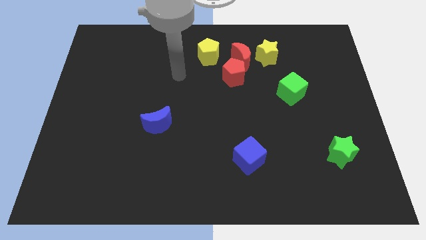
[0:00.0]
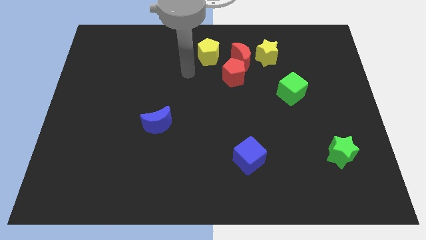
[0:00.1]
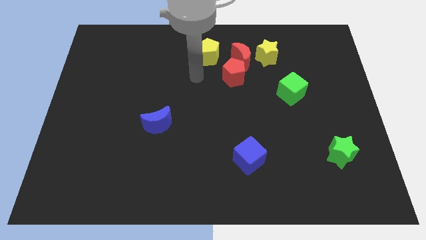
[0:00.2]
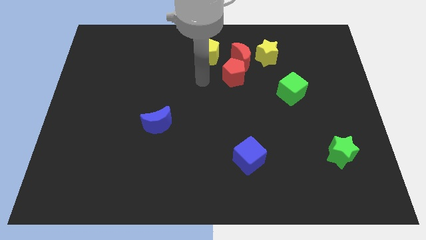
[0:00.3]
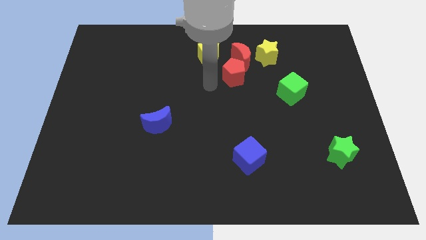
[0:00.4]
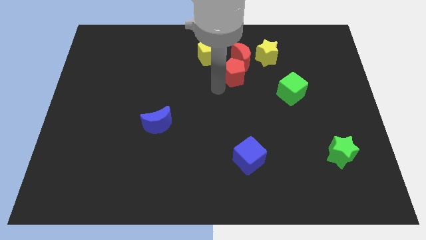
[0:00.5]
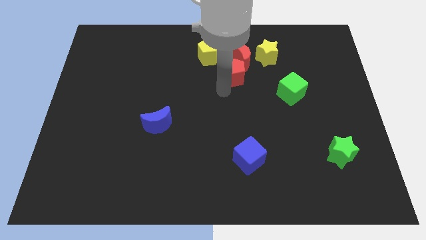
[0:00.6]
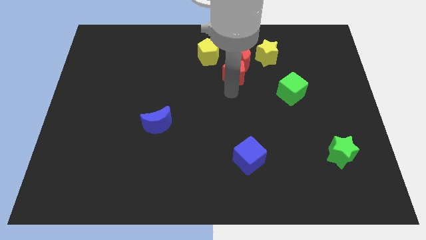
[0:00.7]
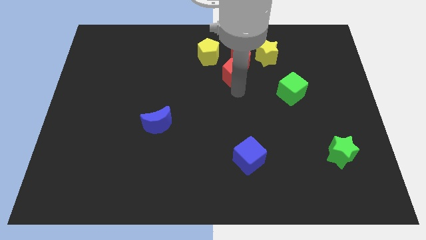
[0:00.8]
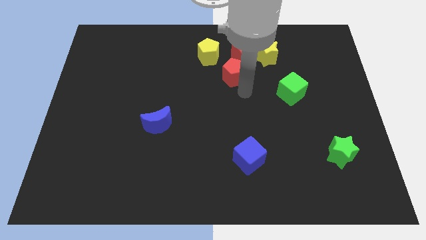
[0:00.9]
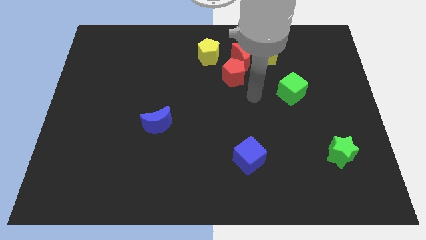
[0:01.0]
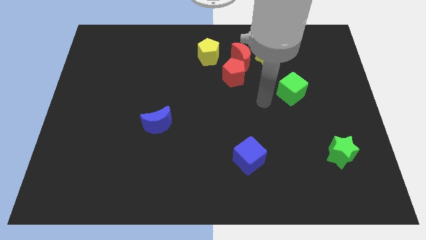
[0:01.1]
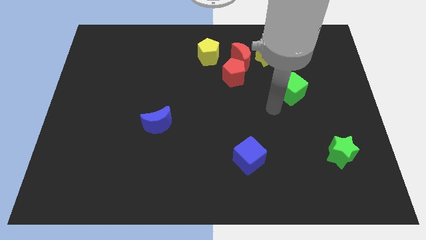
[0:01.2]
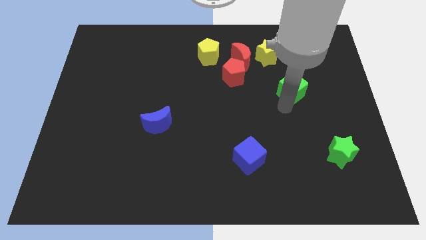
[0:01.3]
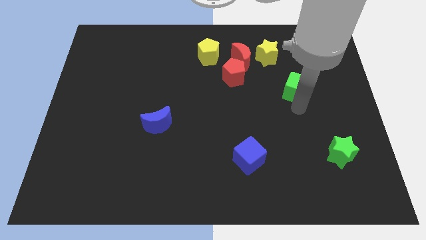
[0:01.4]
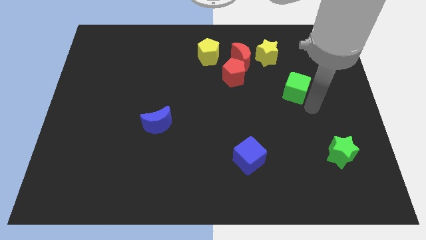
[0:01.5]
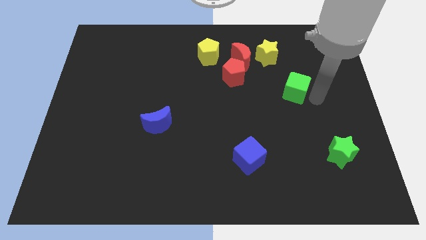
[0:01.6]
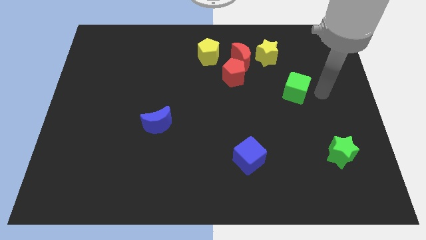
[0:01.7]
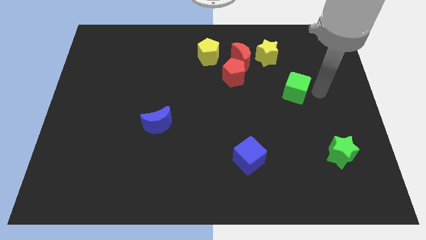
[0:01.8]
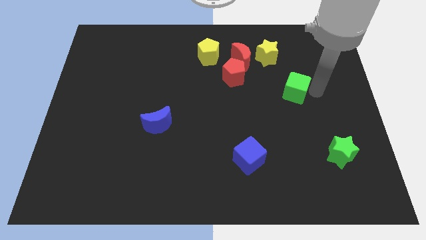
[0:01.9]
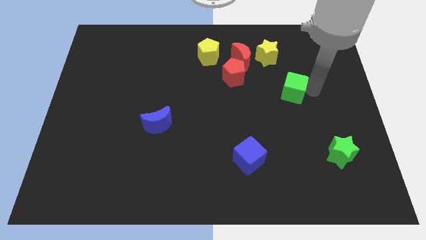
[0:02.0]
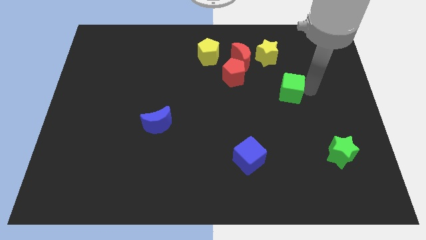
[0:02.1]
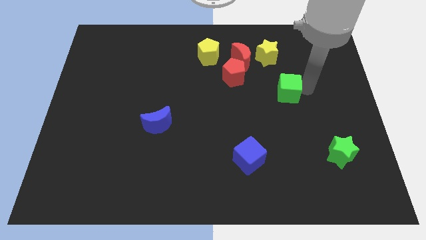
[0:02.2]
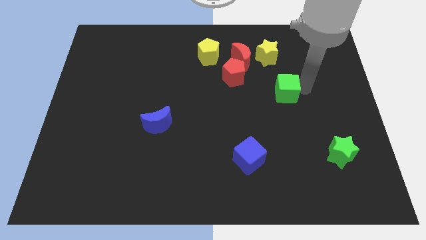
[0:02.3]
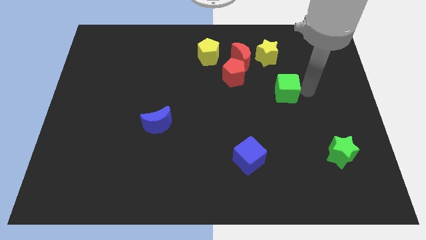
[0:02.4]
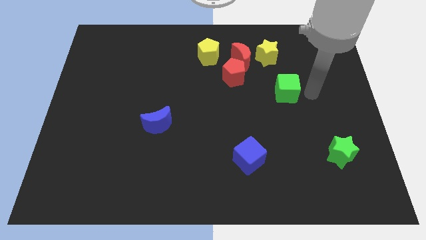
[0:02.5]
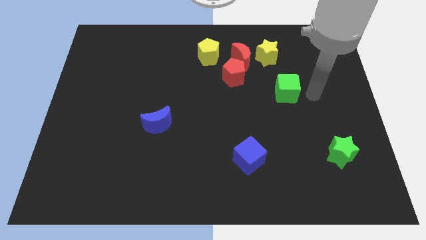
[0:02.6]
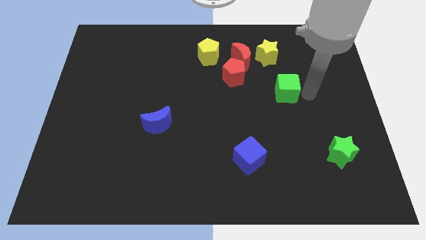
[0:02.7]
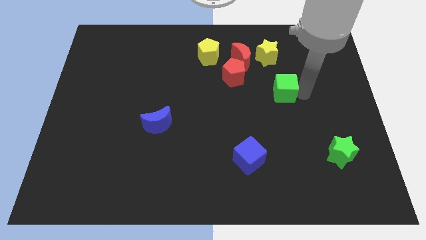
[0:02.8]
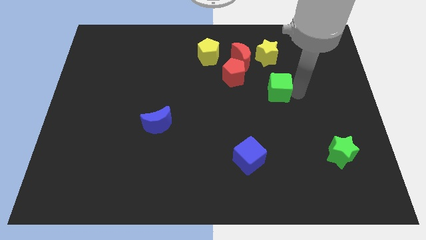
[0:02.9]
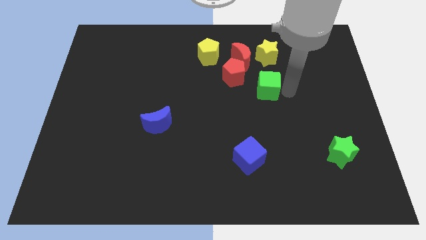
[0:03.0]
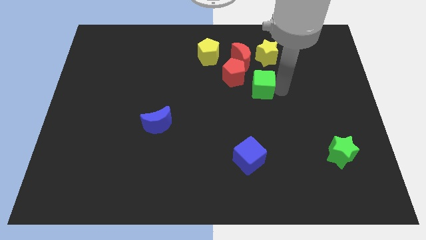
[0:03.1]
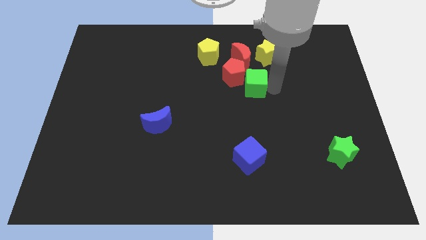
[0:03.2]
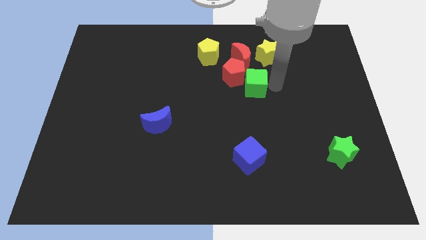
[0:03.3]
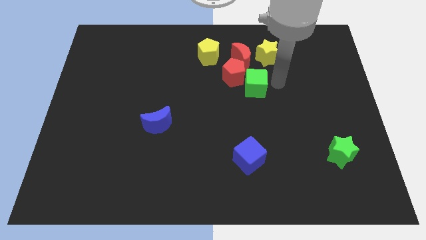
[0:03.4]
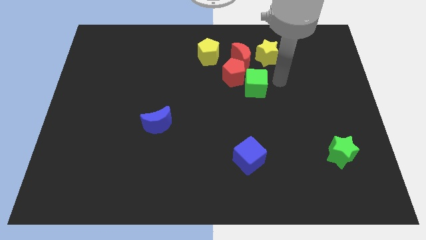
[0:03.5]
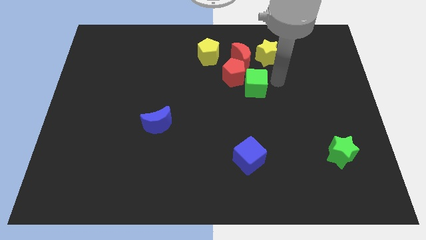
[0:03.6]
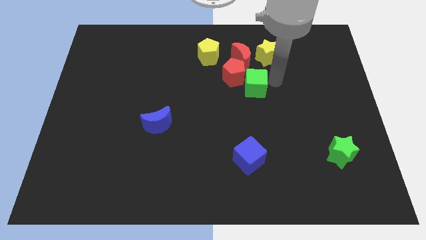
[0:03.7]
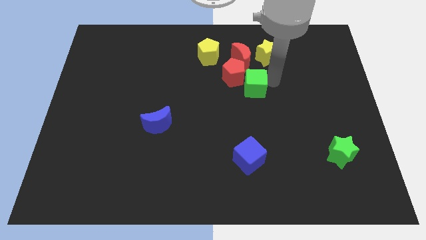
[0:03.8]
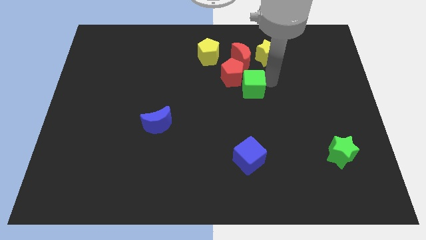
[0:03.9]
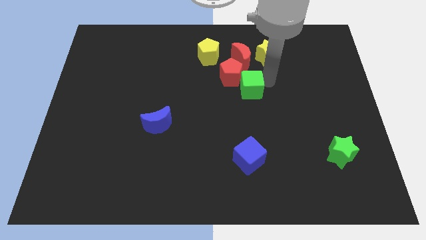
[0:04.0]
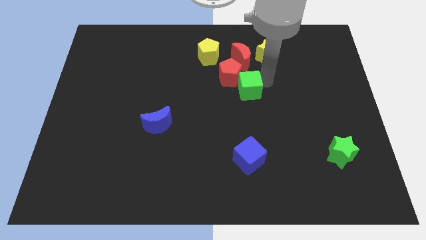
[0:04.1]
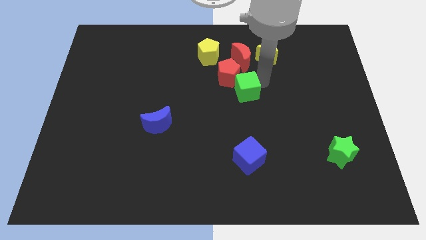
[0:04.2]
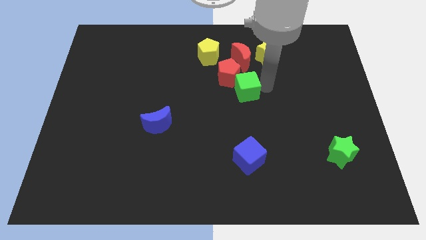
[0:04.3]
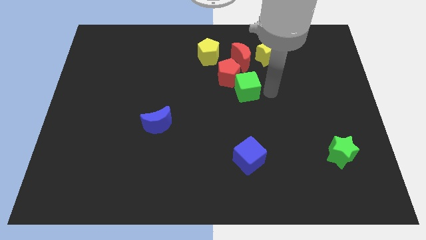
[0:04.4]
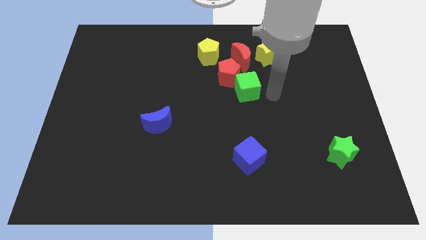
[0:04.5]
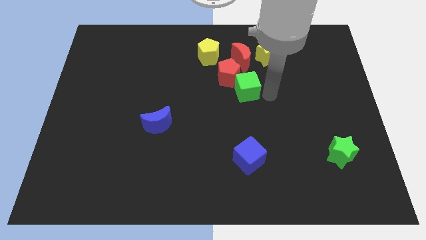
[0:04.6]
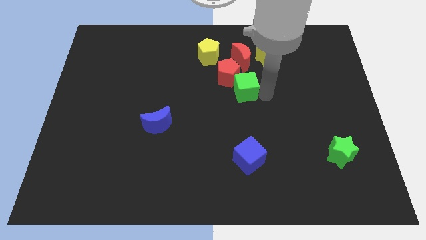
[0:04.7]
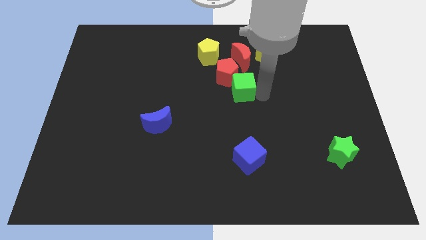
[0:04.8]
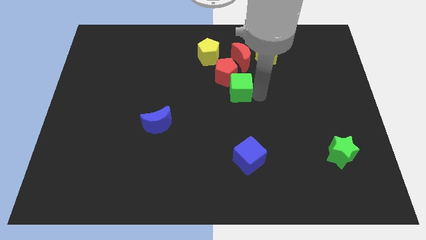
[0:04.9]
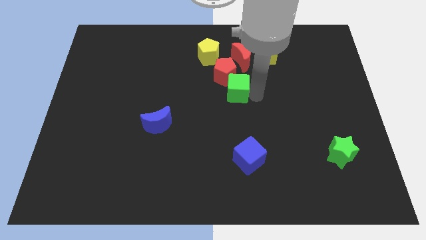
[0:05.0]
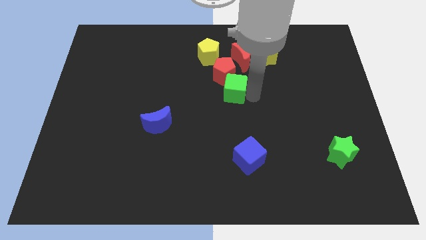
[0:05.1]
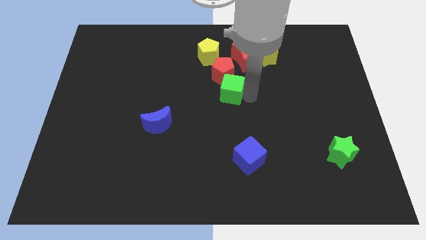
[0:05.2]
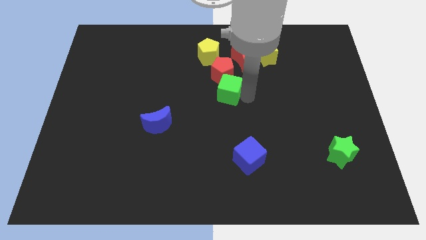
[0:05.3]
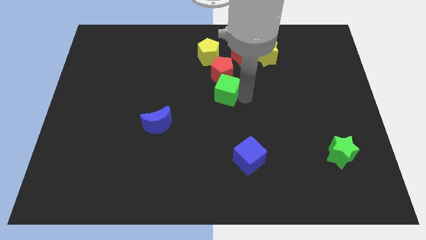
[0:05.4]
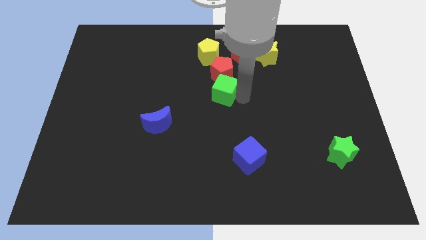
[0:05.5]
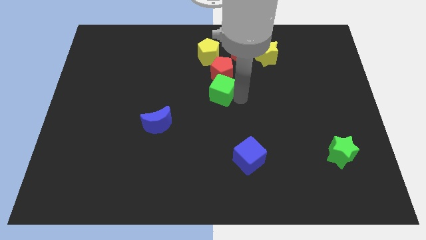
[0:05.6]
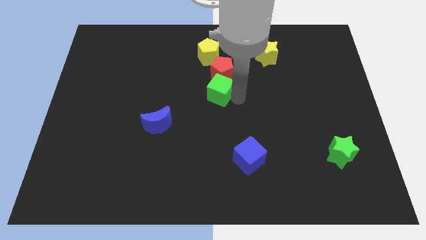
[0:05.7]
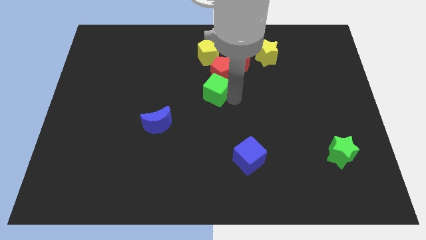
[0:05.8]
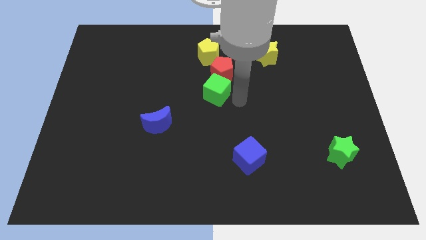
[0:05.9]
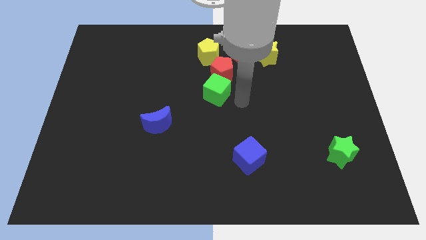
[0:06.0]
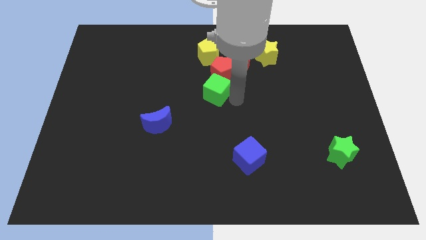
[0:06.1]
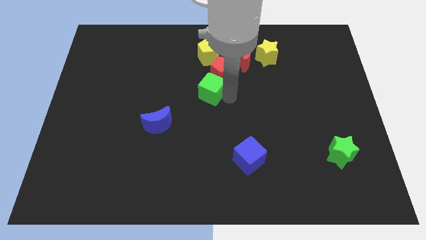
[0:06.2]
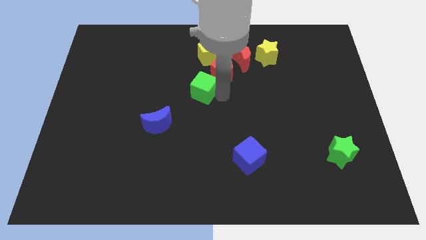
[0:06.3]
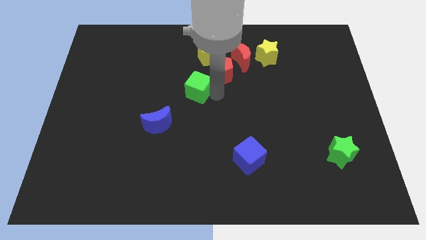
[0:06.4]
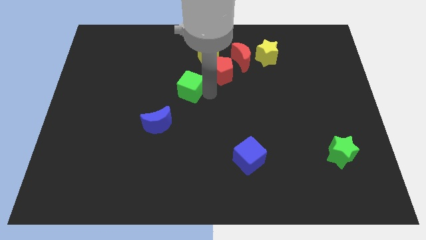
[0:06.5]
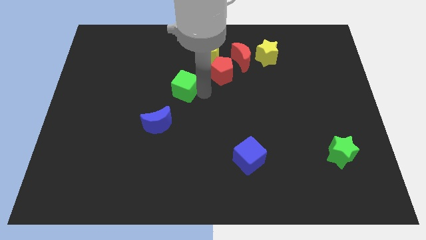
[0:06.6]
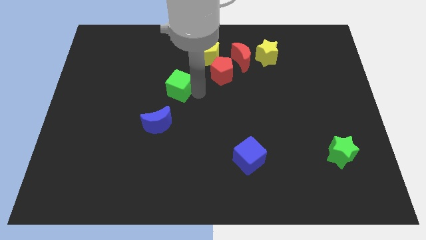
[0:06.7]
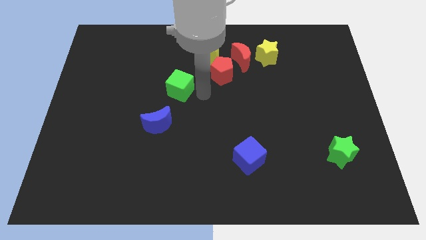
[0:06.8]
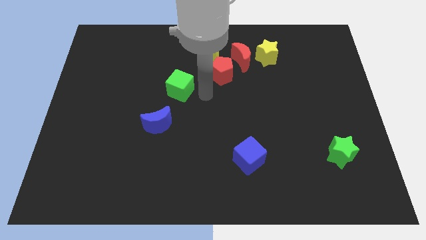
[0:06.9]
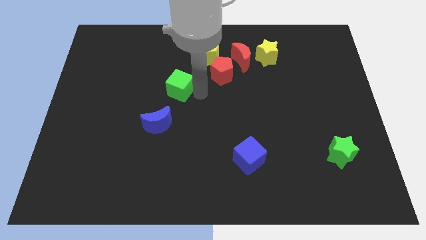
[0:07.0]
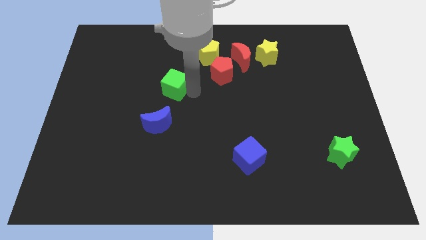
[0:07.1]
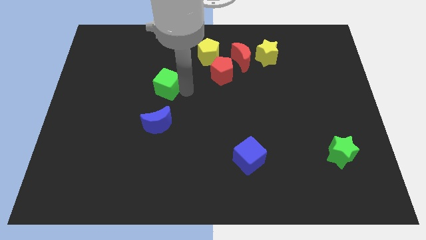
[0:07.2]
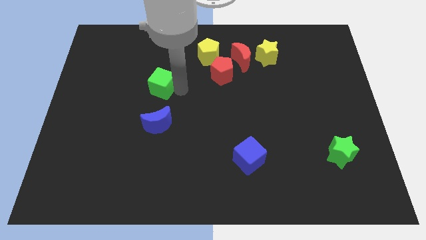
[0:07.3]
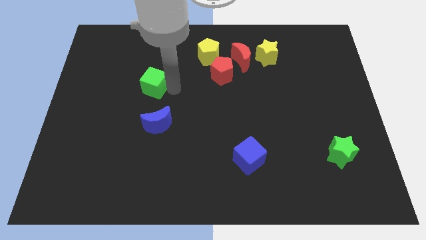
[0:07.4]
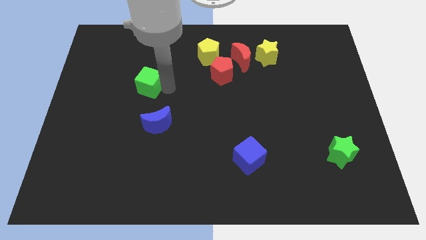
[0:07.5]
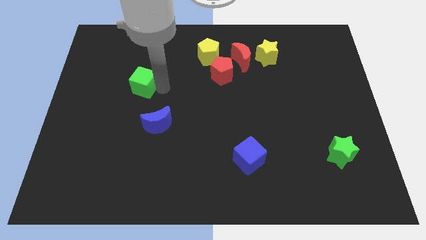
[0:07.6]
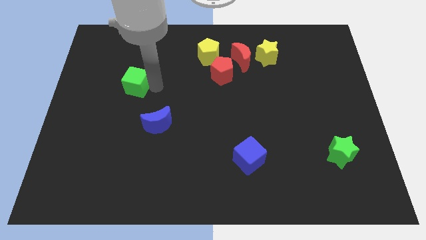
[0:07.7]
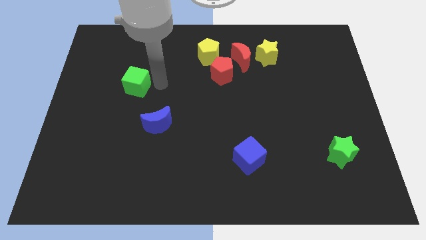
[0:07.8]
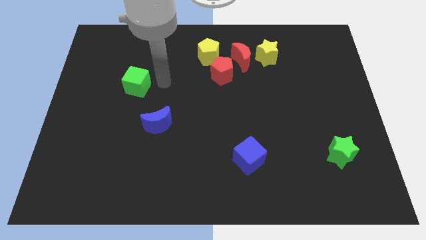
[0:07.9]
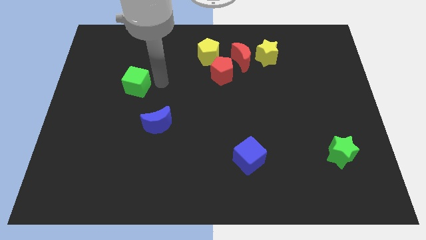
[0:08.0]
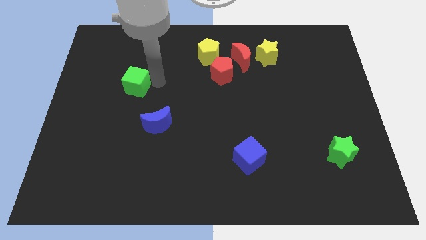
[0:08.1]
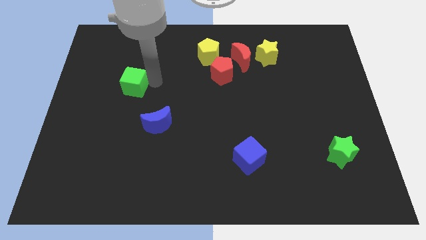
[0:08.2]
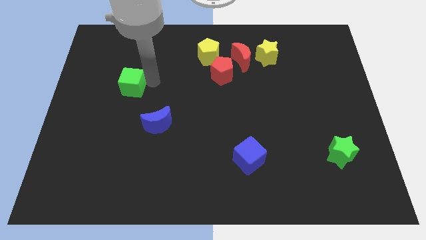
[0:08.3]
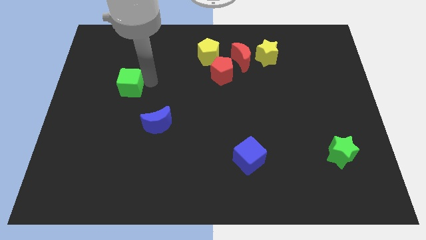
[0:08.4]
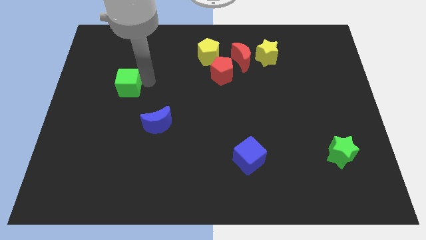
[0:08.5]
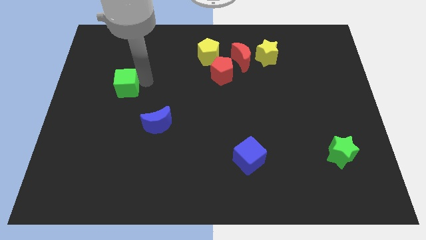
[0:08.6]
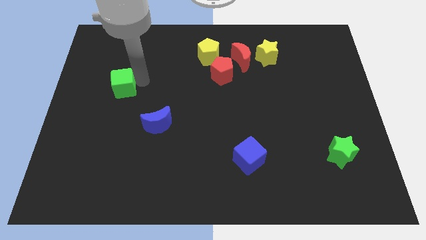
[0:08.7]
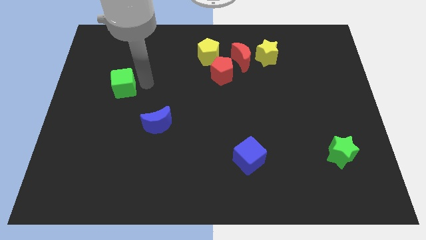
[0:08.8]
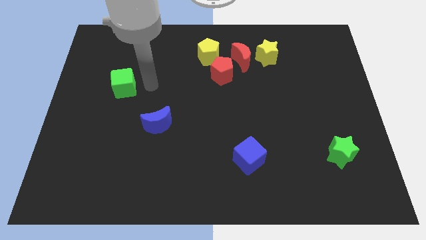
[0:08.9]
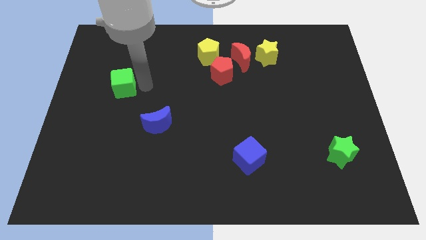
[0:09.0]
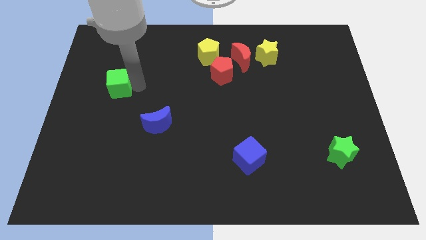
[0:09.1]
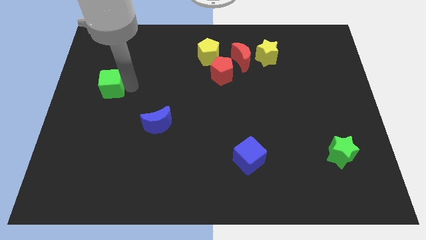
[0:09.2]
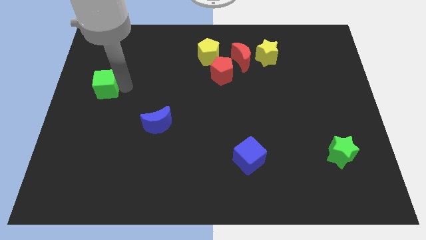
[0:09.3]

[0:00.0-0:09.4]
move the green cube to the center left
